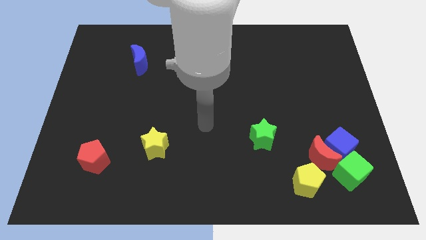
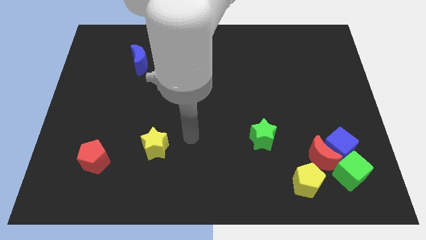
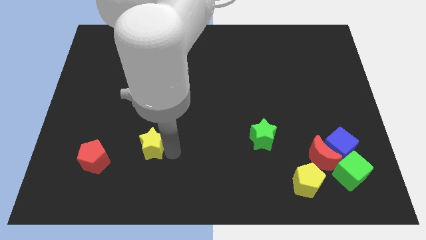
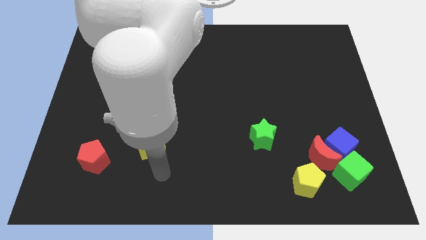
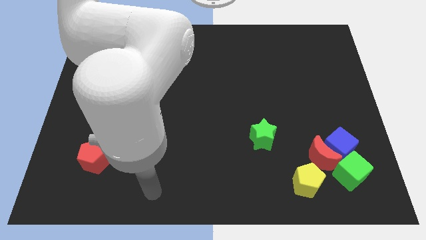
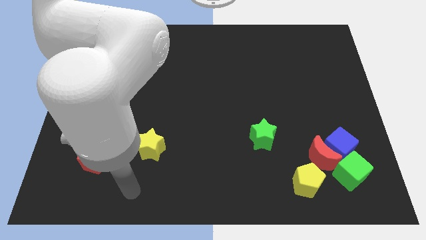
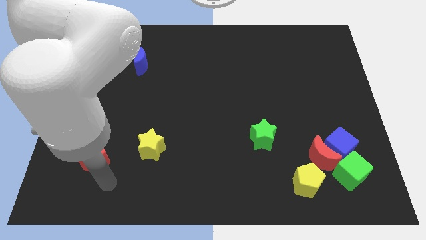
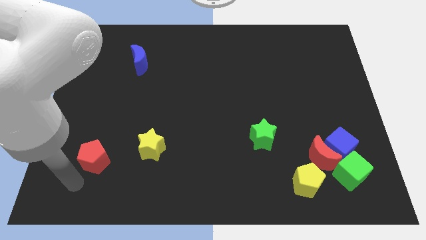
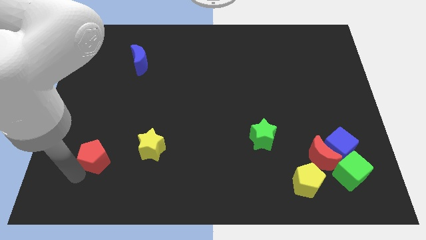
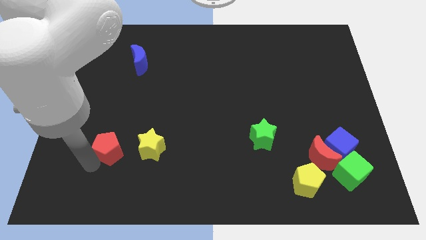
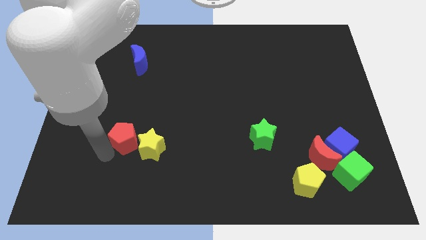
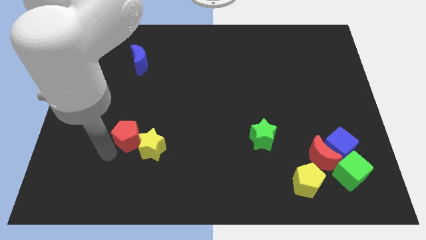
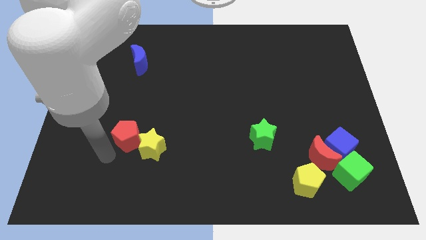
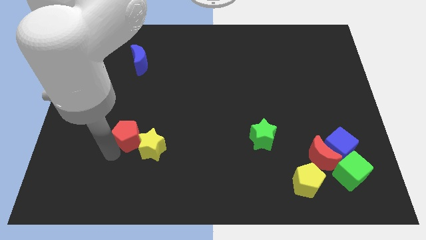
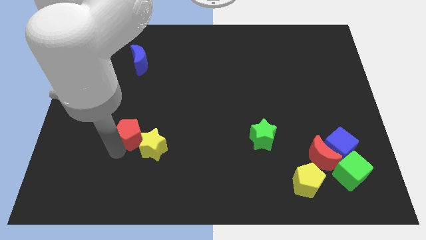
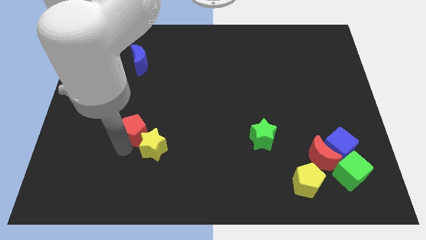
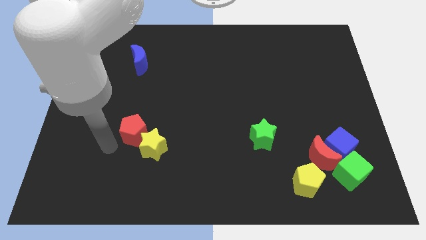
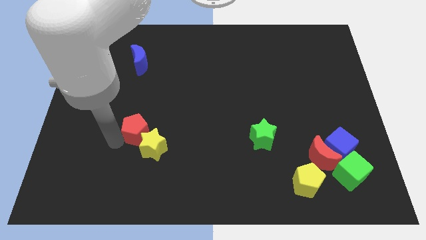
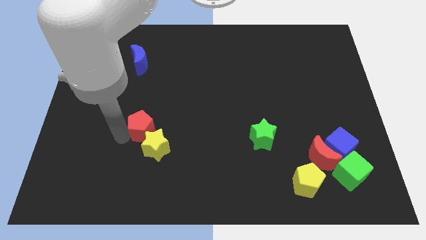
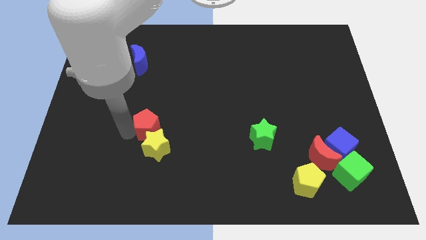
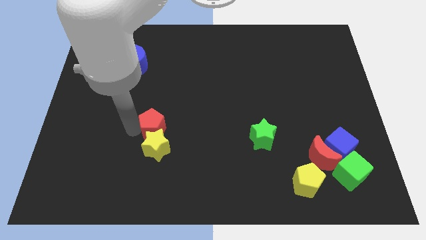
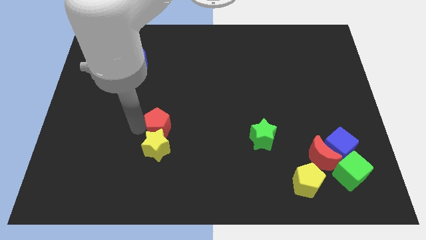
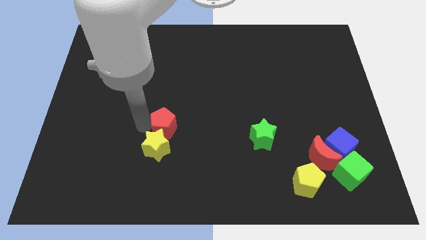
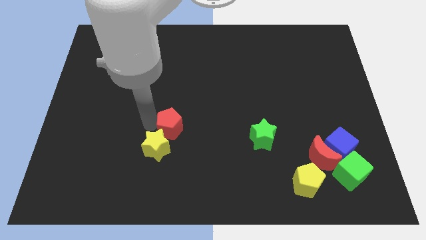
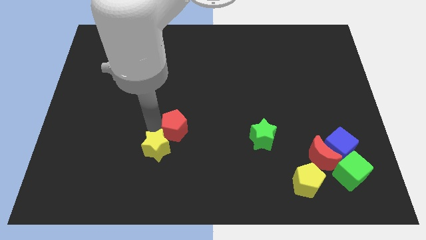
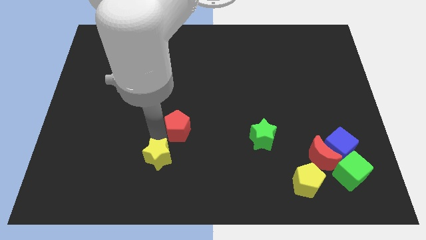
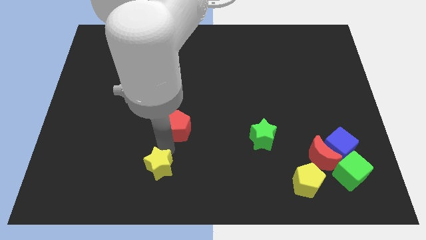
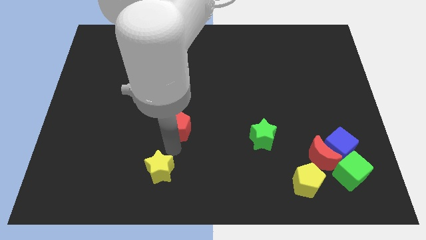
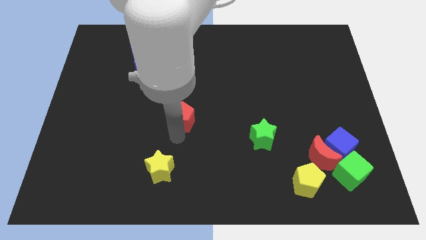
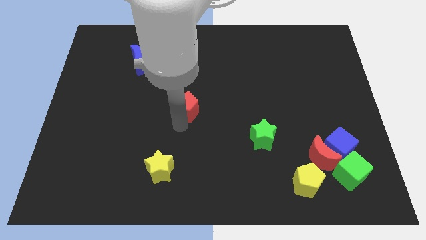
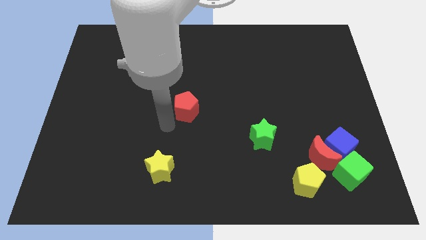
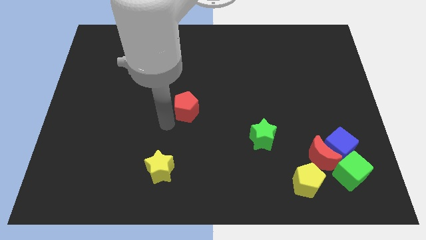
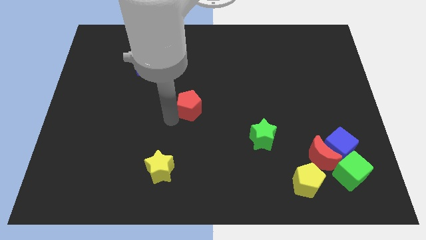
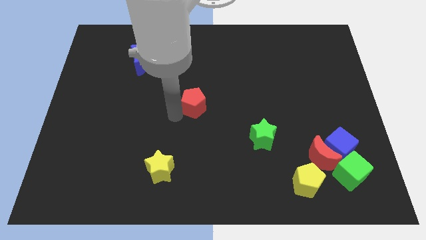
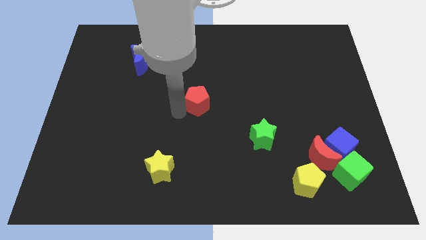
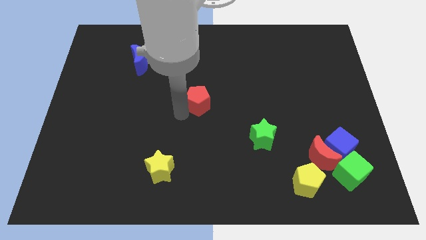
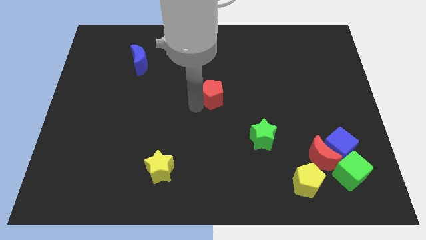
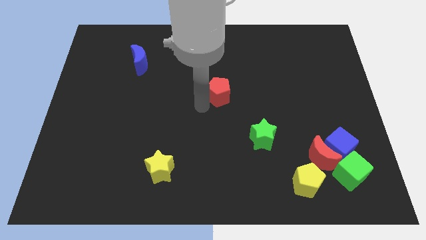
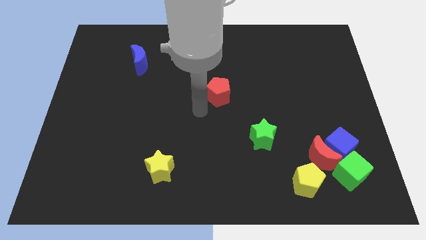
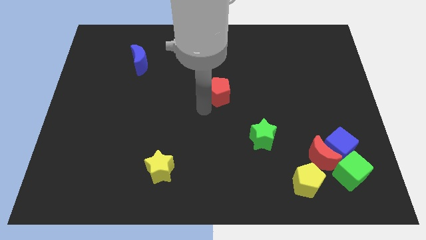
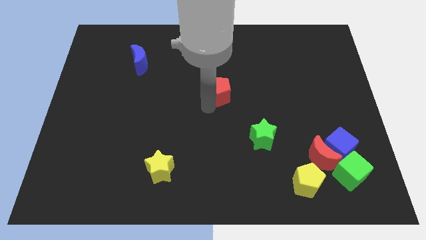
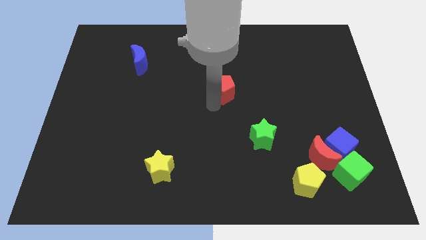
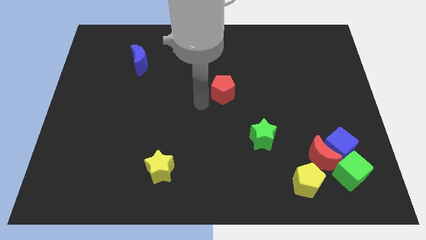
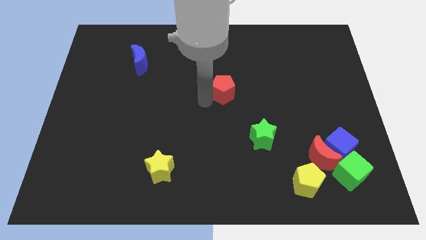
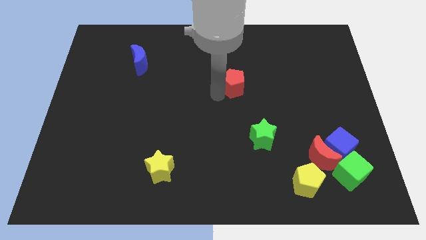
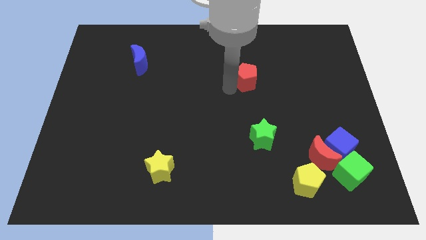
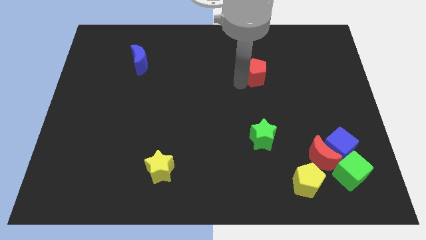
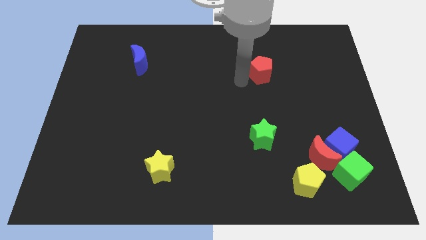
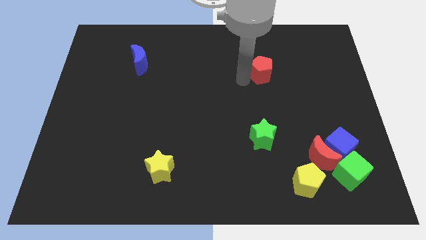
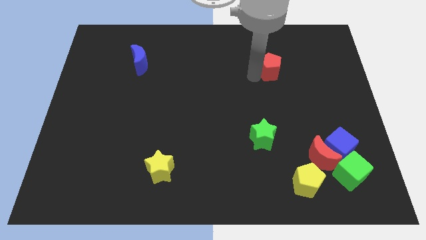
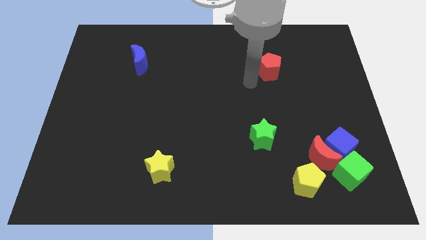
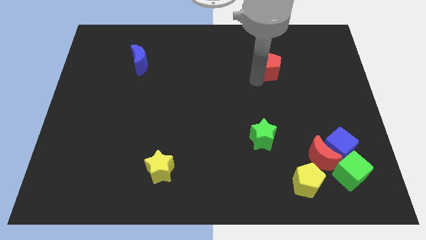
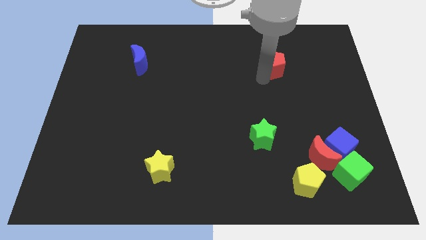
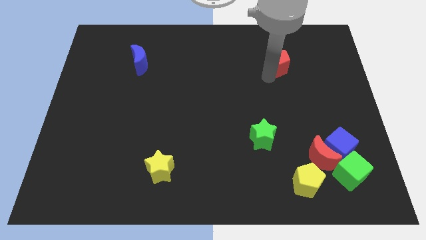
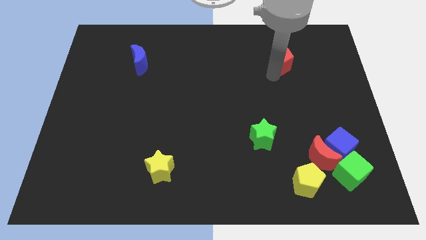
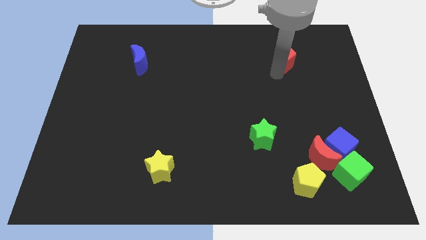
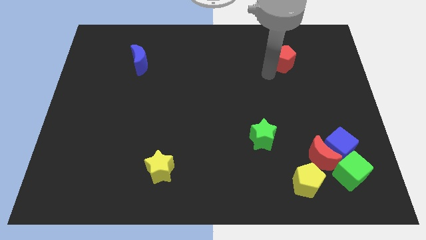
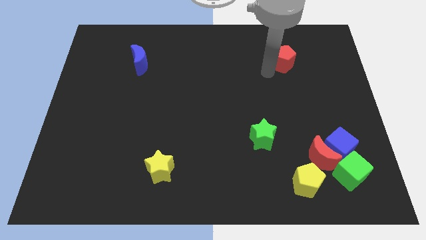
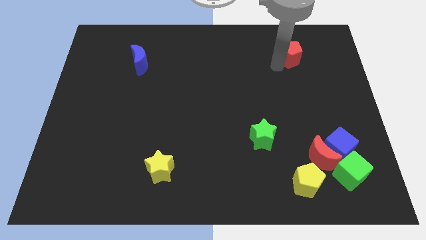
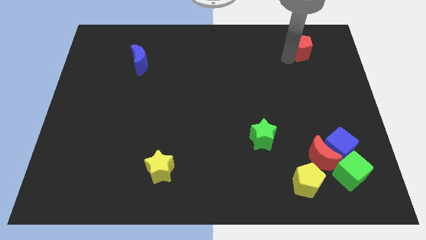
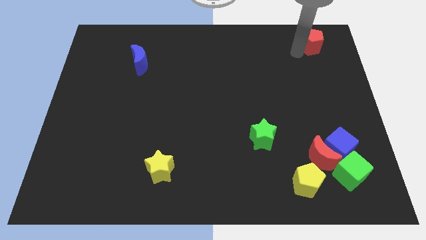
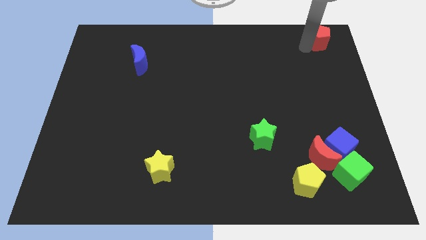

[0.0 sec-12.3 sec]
put the red pentagon to the top right

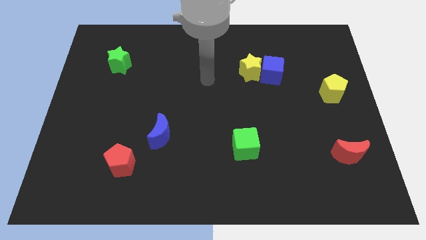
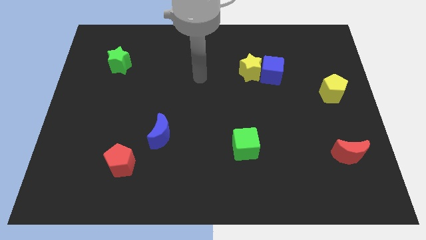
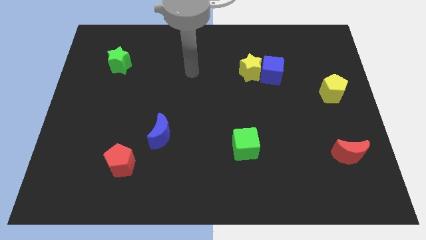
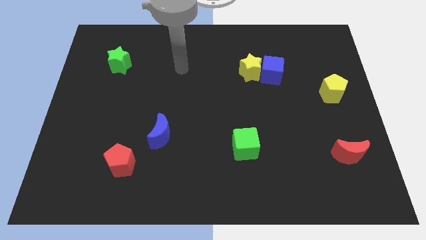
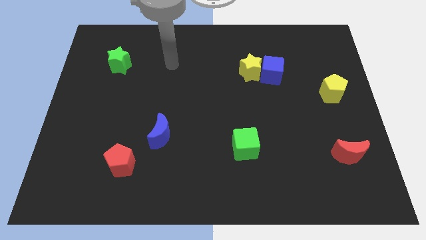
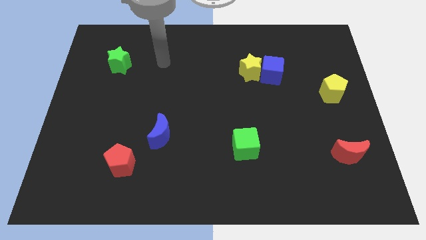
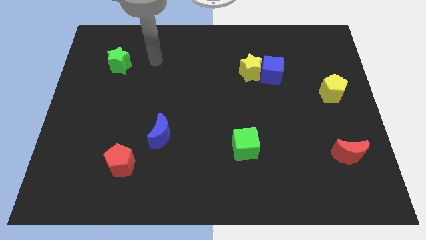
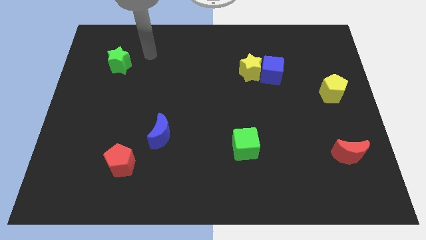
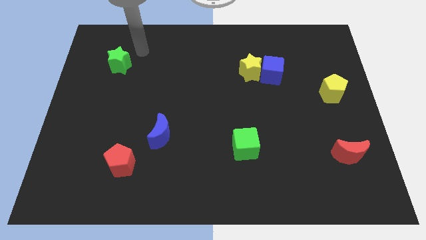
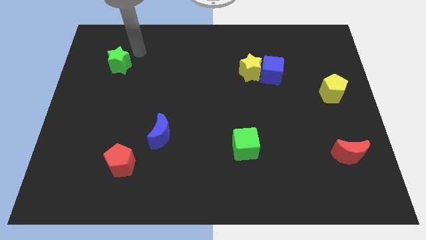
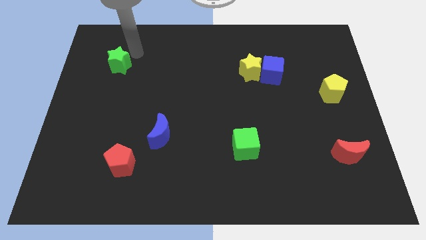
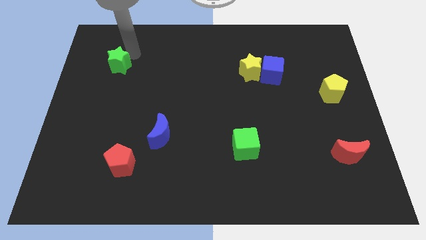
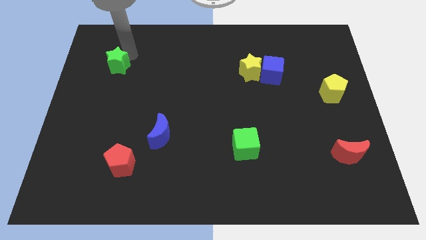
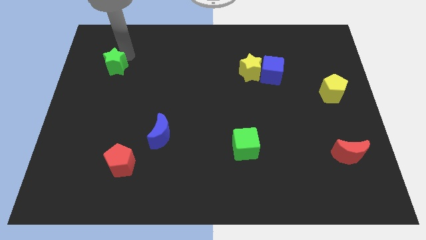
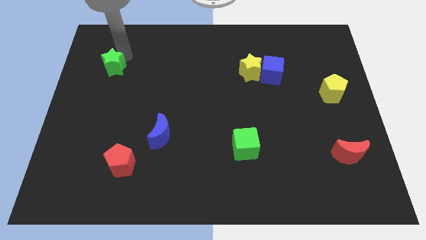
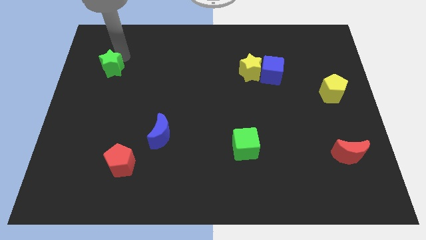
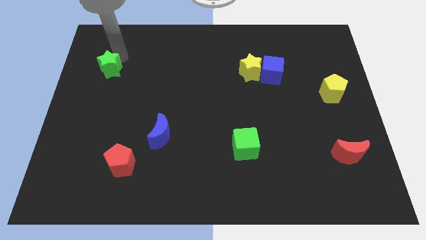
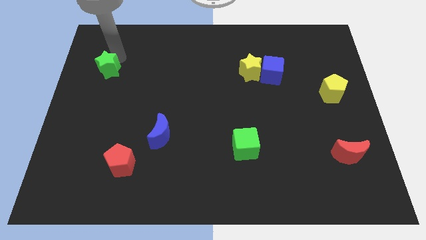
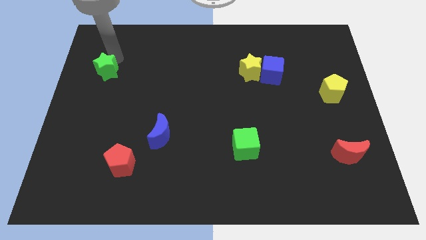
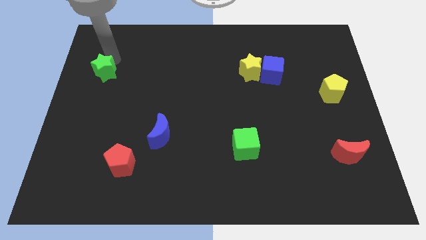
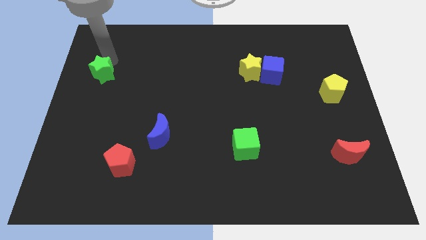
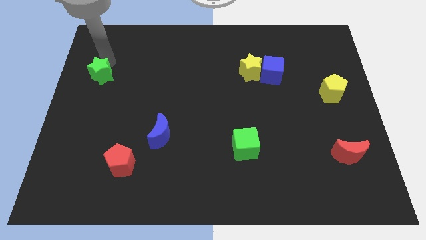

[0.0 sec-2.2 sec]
slide the green star to the left side
